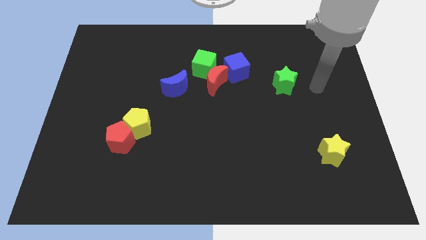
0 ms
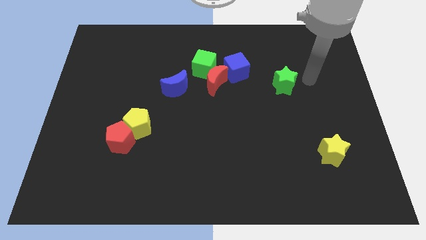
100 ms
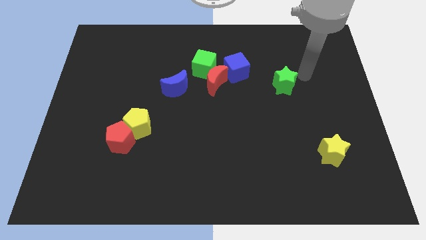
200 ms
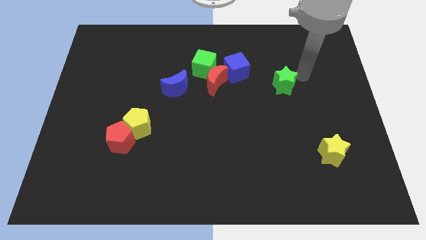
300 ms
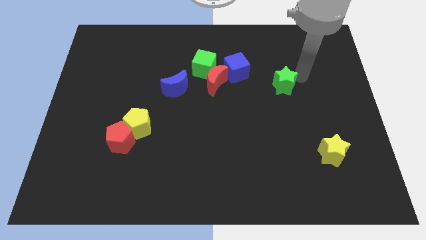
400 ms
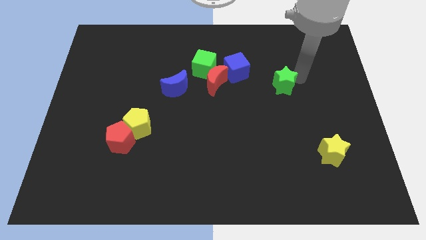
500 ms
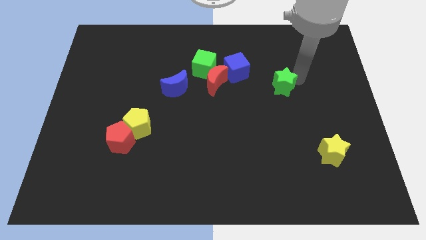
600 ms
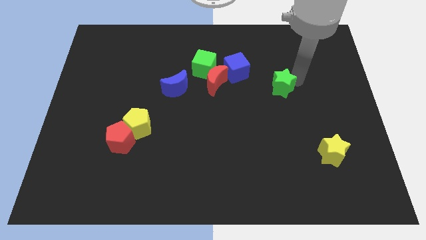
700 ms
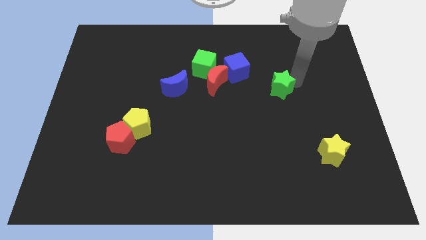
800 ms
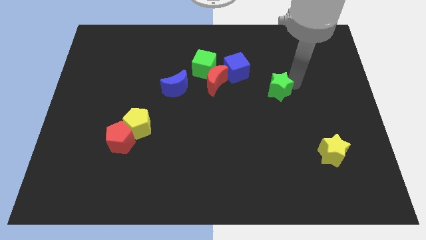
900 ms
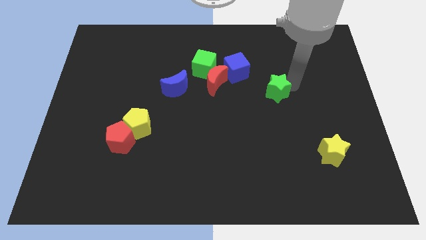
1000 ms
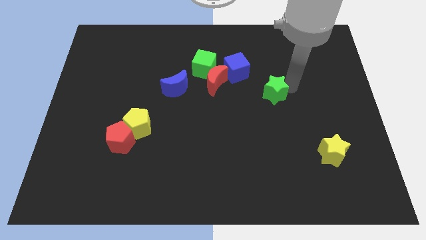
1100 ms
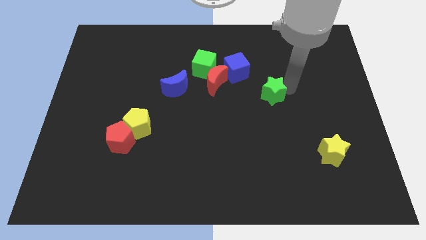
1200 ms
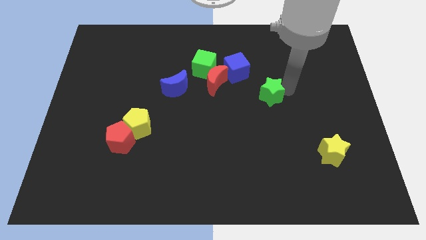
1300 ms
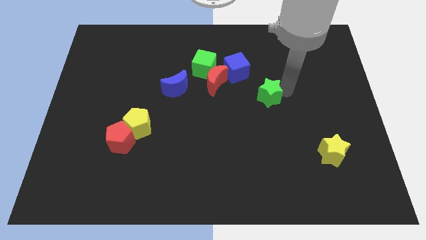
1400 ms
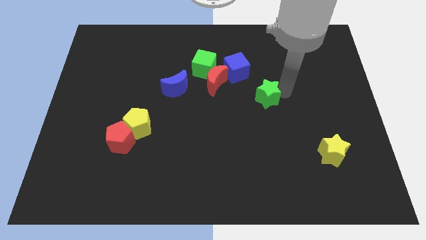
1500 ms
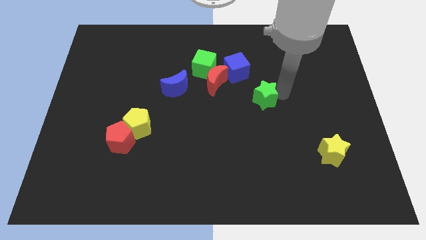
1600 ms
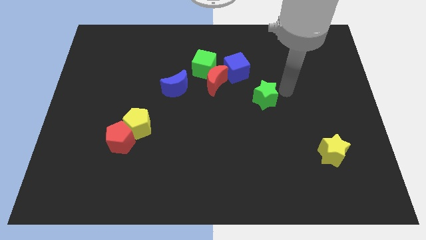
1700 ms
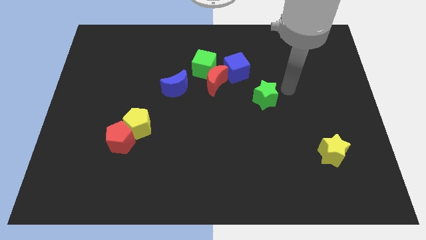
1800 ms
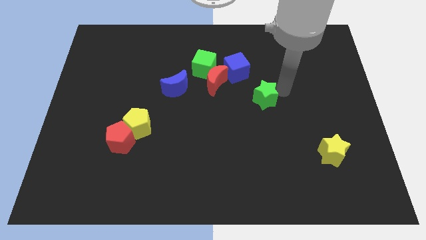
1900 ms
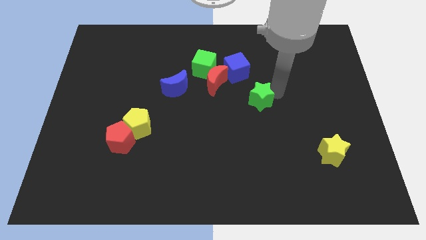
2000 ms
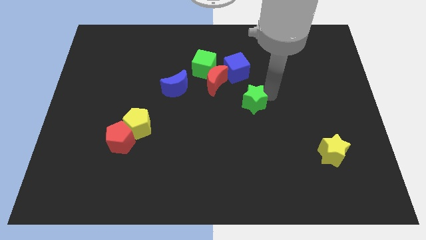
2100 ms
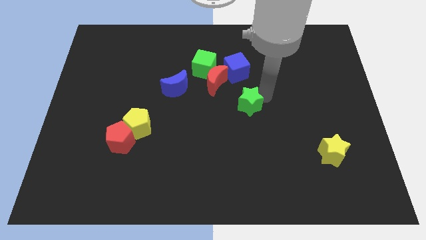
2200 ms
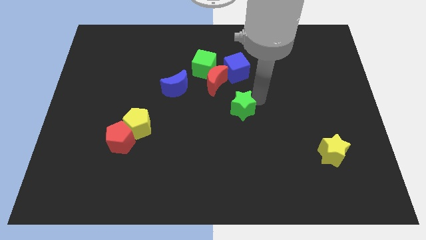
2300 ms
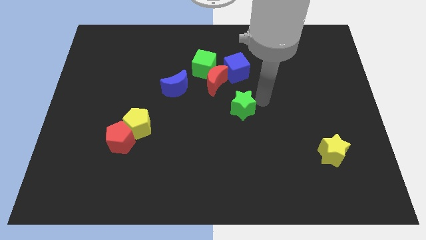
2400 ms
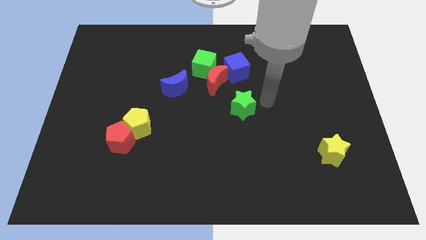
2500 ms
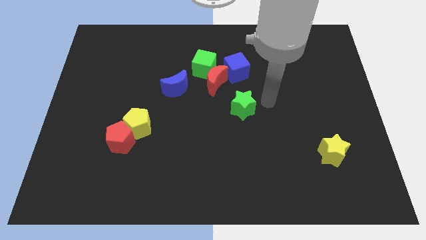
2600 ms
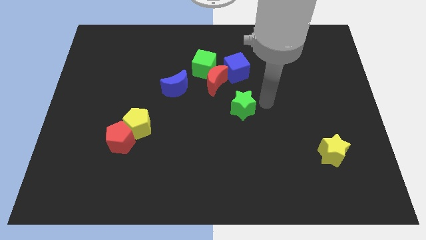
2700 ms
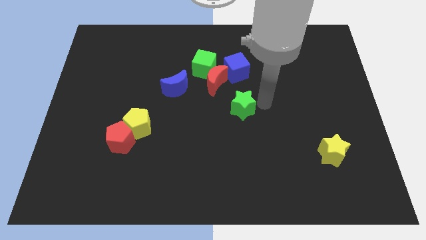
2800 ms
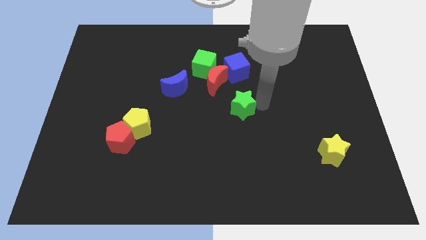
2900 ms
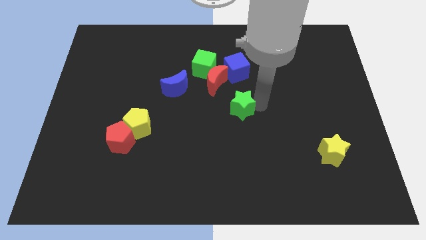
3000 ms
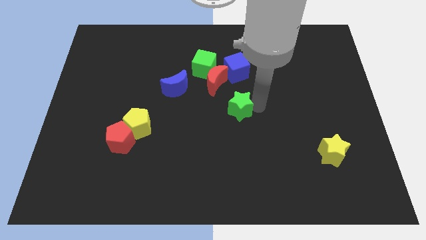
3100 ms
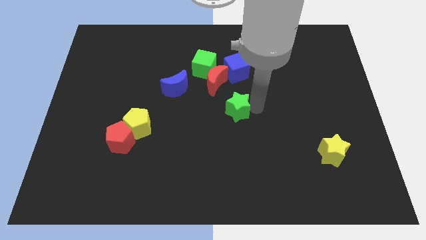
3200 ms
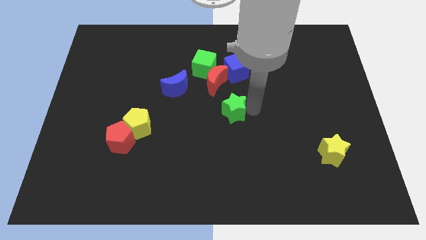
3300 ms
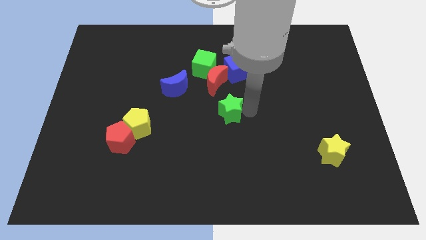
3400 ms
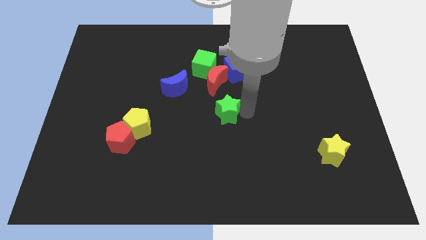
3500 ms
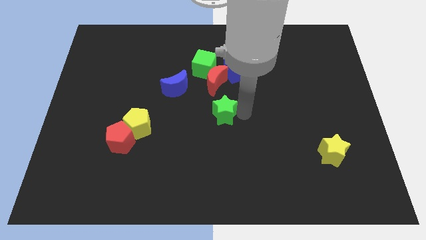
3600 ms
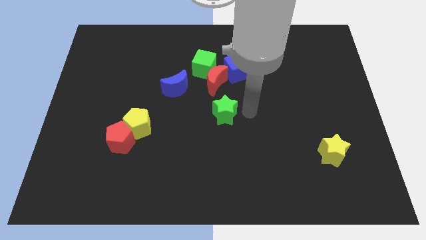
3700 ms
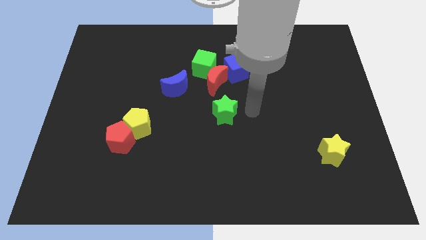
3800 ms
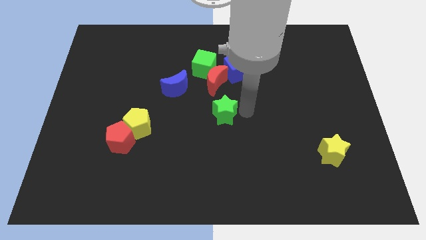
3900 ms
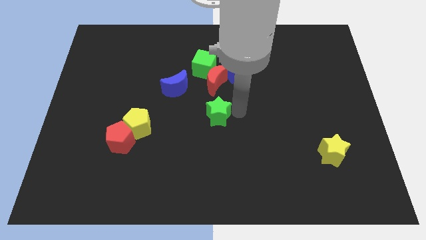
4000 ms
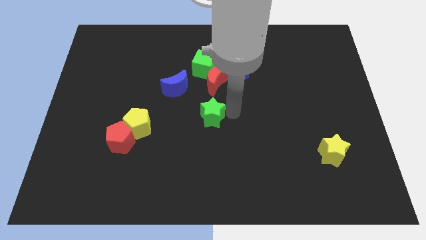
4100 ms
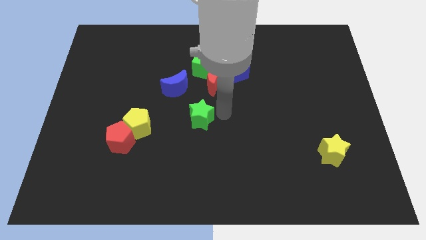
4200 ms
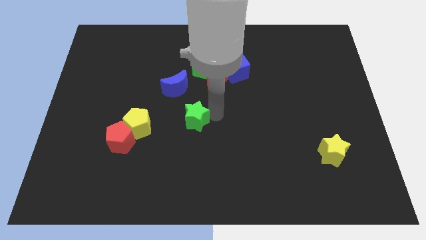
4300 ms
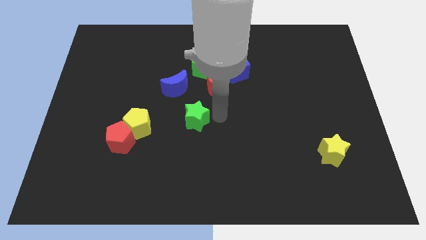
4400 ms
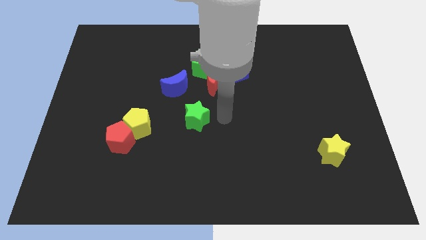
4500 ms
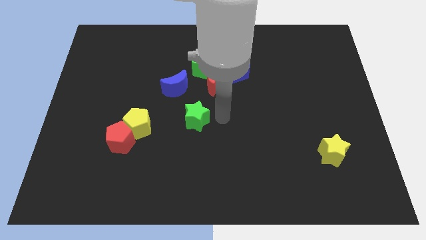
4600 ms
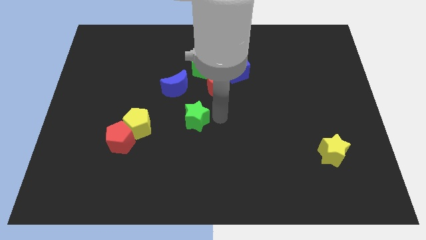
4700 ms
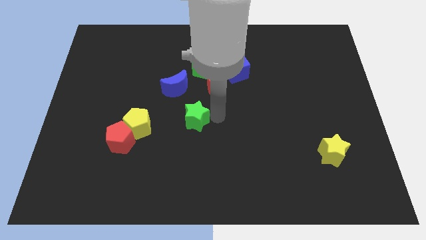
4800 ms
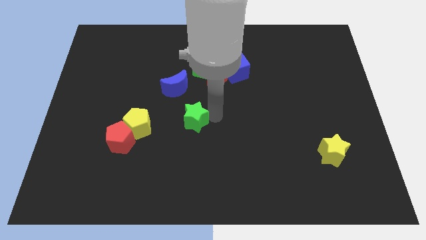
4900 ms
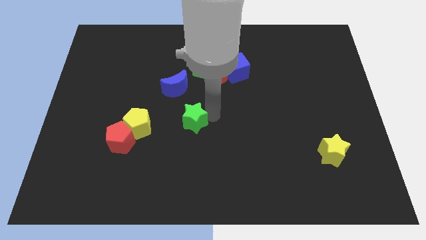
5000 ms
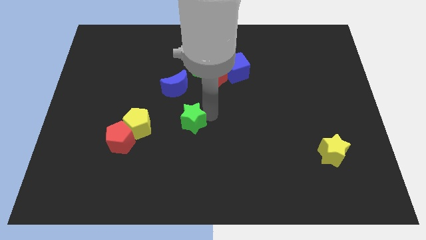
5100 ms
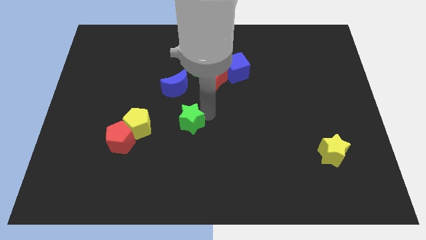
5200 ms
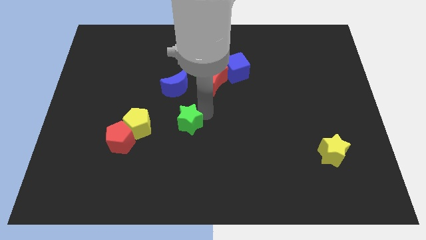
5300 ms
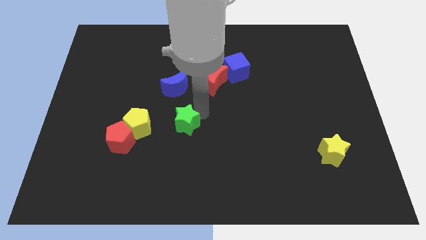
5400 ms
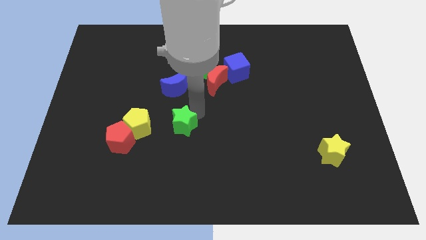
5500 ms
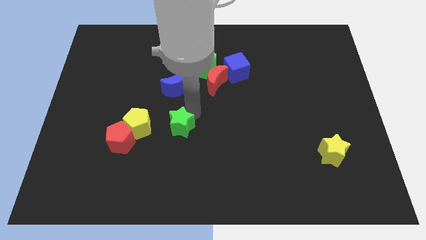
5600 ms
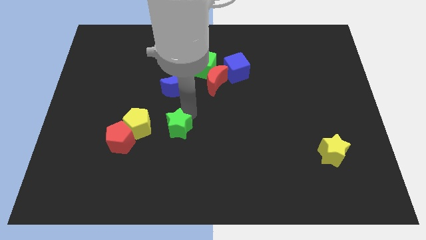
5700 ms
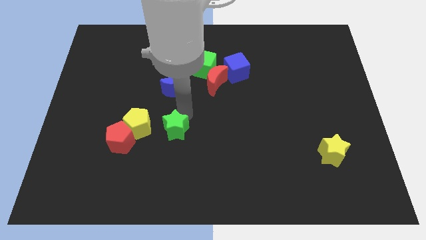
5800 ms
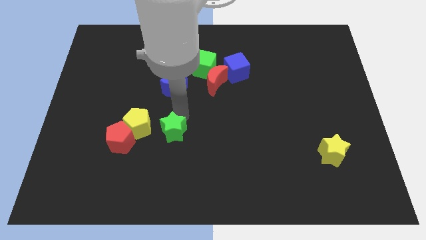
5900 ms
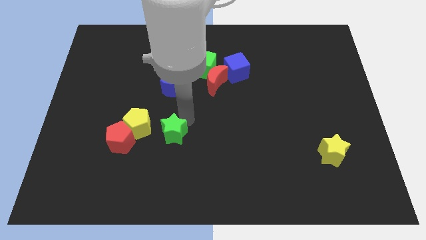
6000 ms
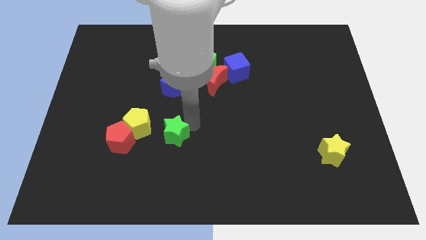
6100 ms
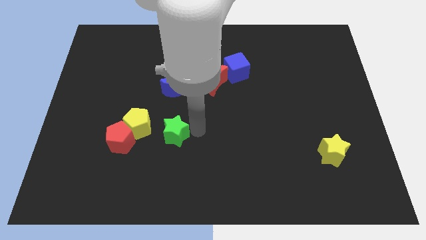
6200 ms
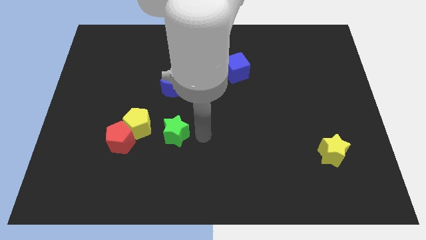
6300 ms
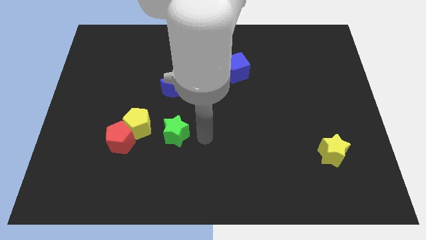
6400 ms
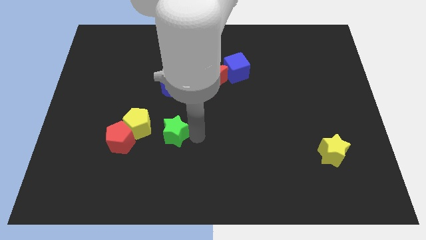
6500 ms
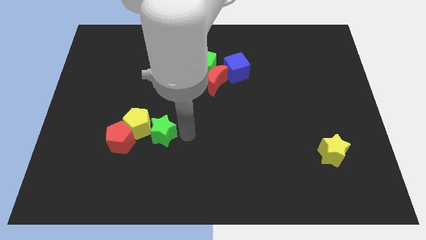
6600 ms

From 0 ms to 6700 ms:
push the green star next to the yellow pentagon

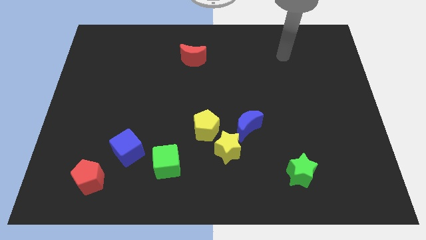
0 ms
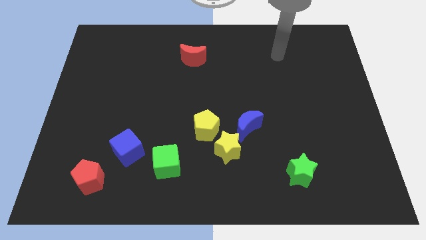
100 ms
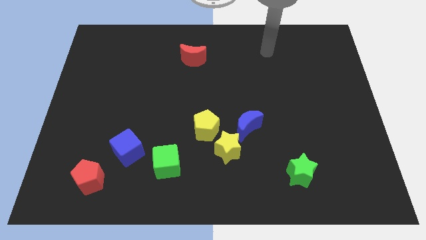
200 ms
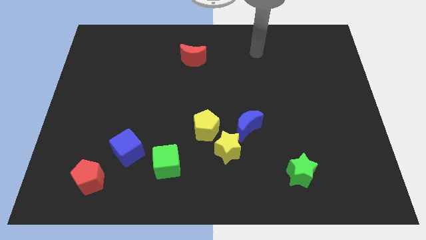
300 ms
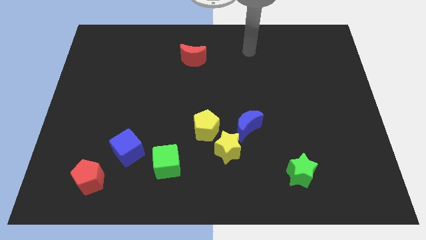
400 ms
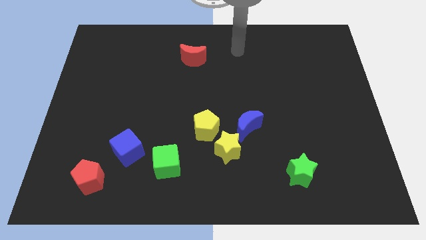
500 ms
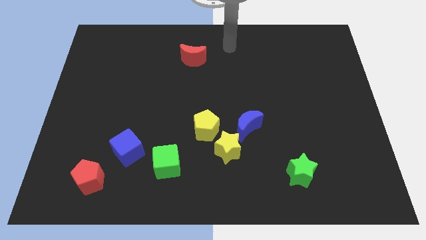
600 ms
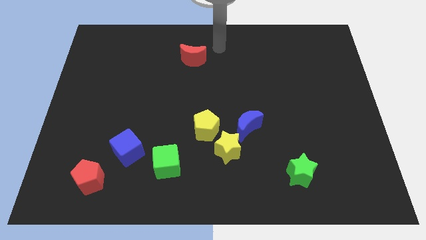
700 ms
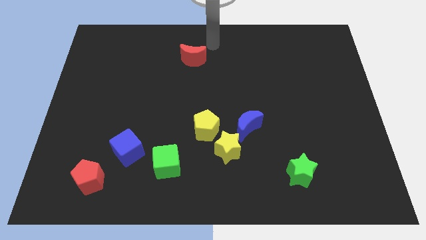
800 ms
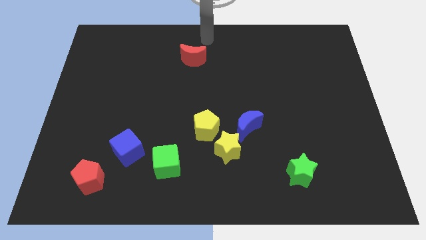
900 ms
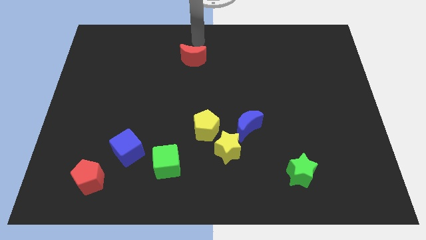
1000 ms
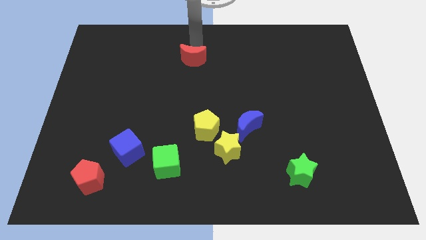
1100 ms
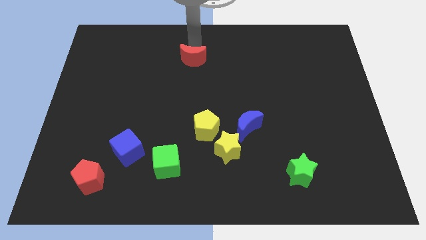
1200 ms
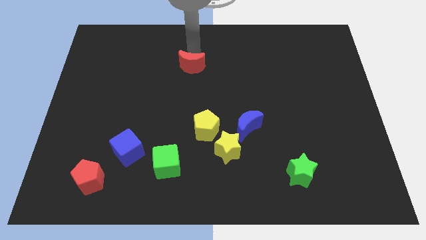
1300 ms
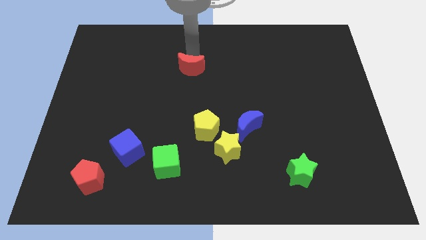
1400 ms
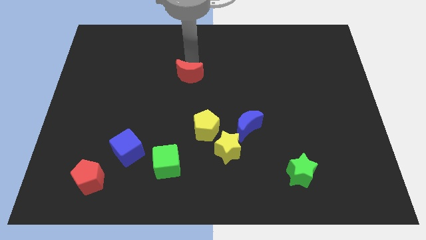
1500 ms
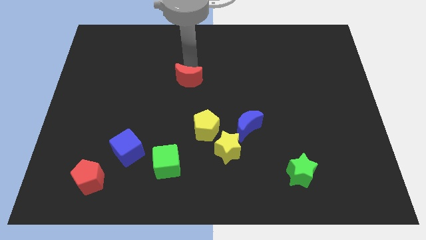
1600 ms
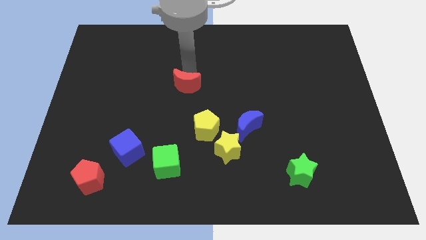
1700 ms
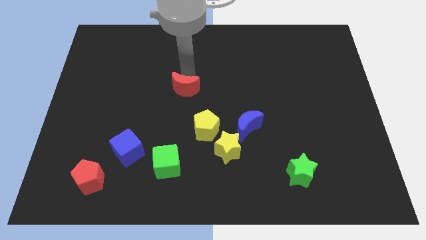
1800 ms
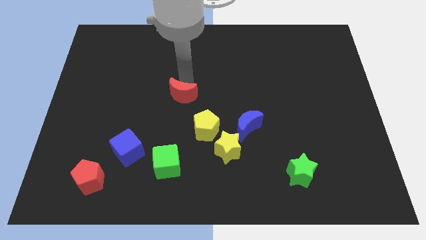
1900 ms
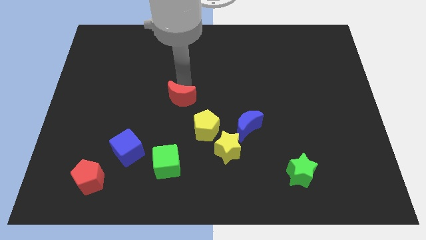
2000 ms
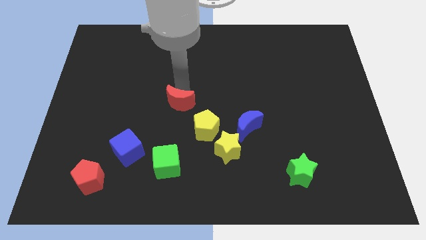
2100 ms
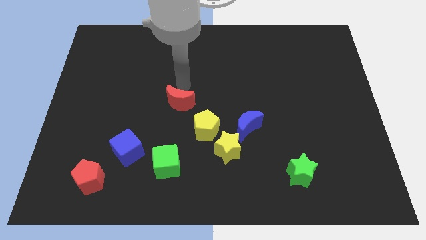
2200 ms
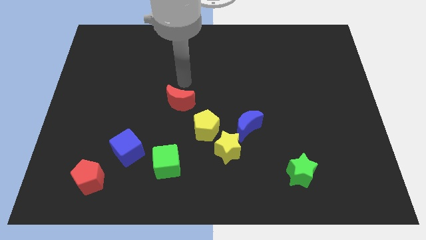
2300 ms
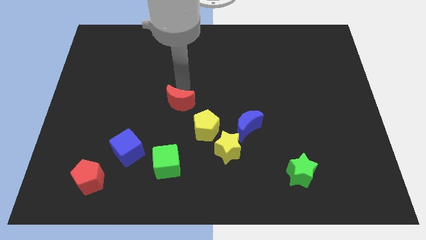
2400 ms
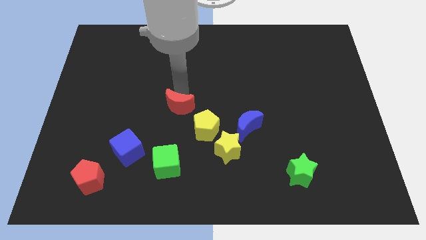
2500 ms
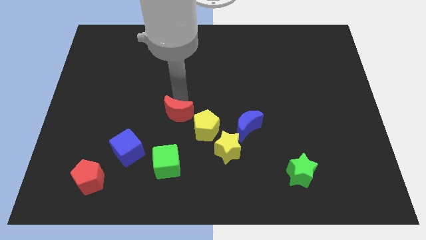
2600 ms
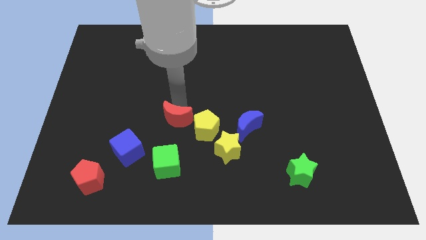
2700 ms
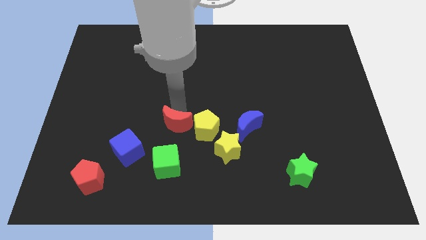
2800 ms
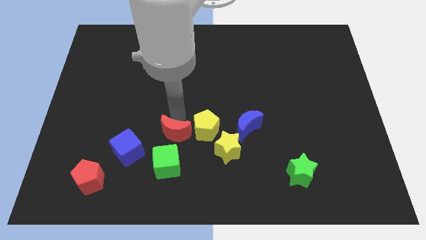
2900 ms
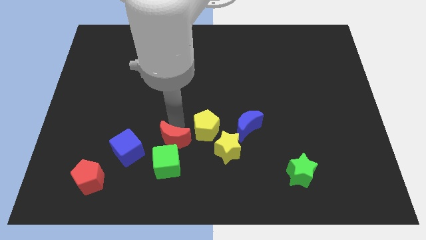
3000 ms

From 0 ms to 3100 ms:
move the red moon to the green cube
